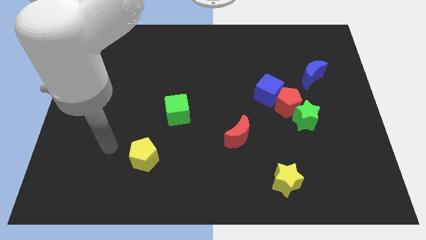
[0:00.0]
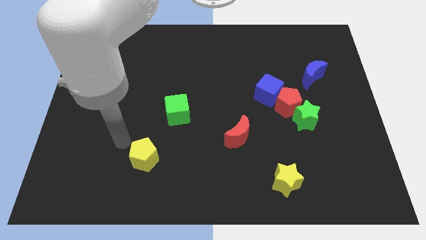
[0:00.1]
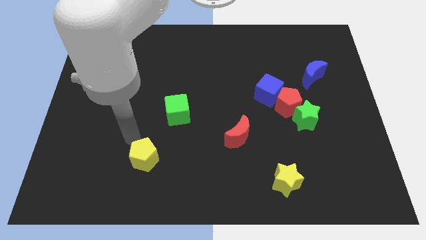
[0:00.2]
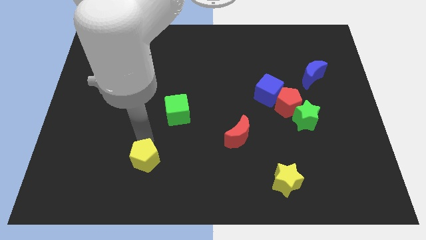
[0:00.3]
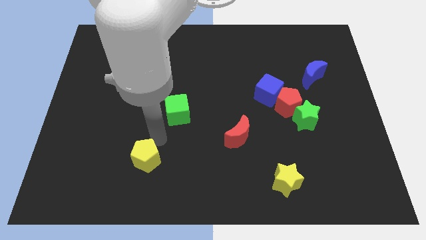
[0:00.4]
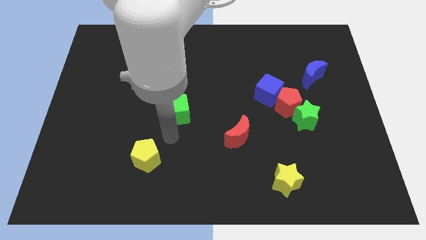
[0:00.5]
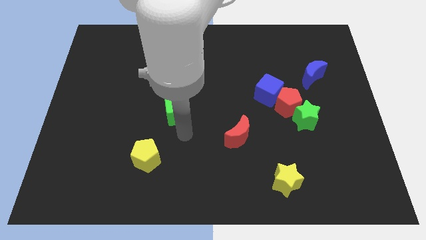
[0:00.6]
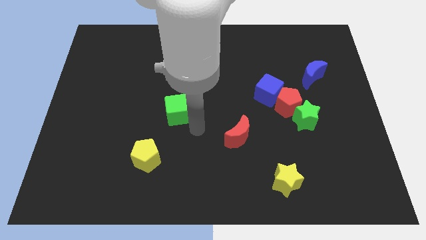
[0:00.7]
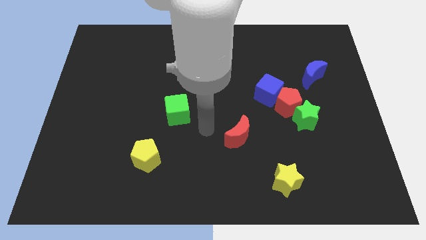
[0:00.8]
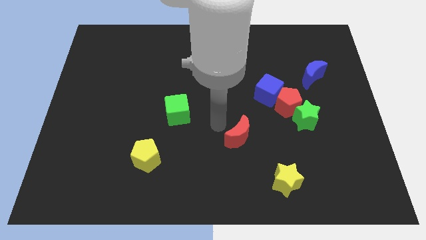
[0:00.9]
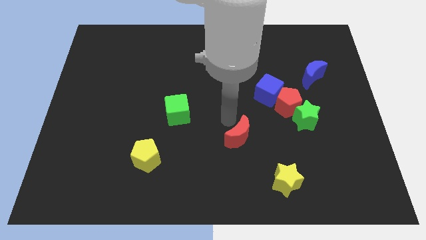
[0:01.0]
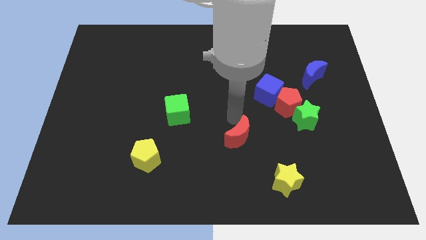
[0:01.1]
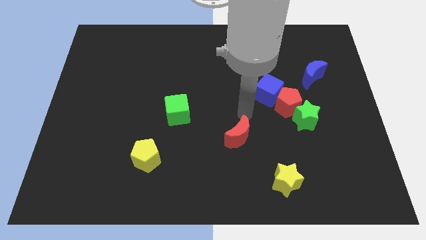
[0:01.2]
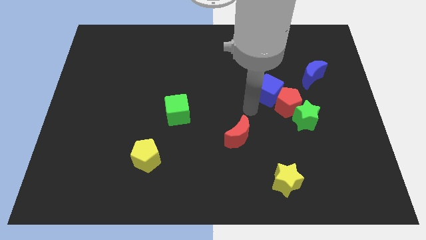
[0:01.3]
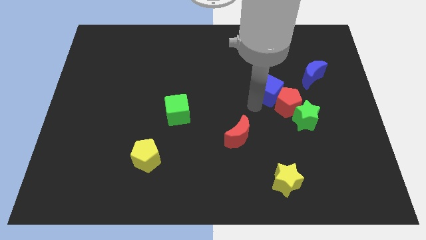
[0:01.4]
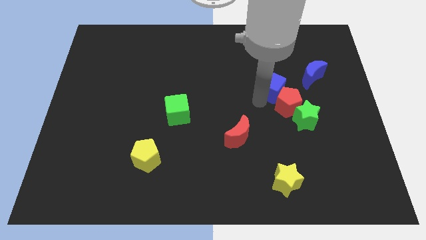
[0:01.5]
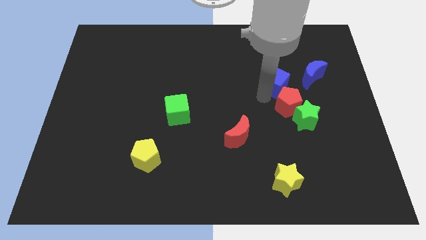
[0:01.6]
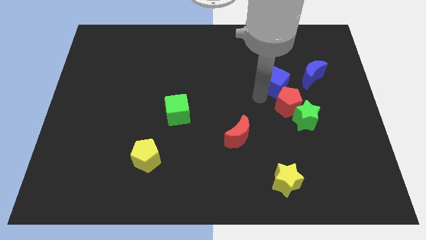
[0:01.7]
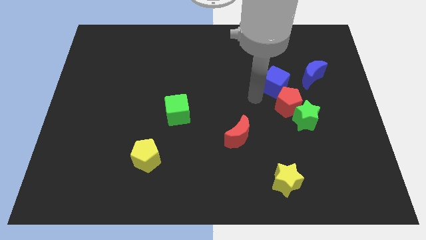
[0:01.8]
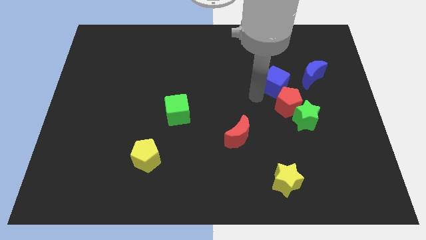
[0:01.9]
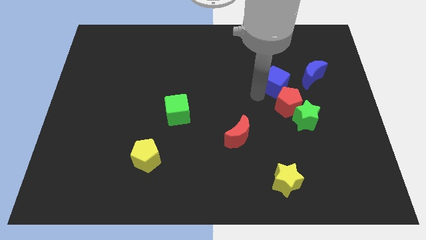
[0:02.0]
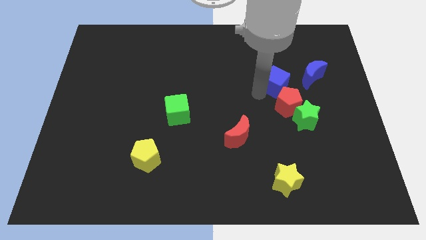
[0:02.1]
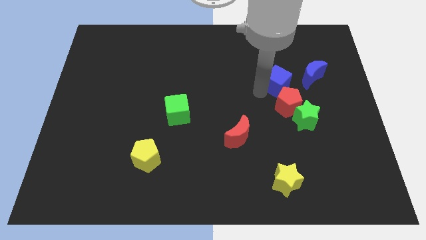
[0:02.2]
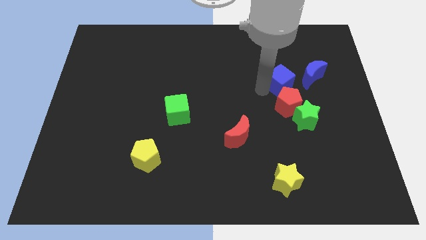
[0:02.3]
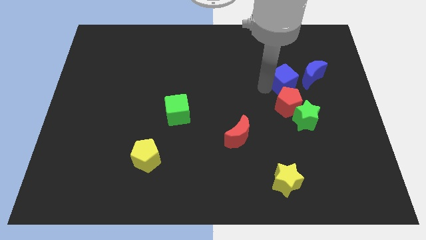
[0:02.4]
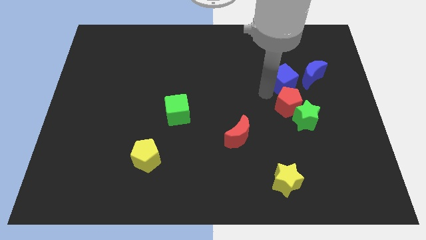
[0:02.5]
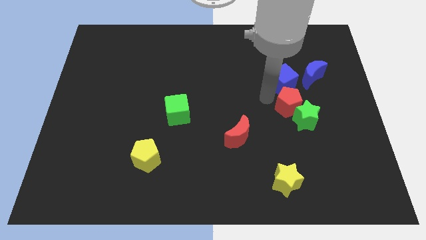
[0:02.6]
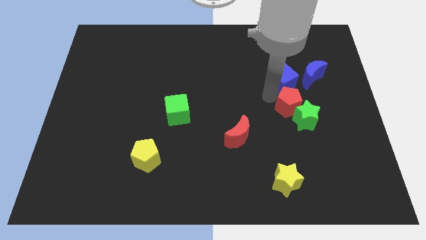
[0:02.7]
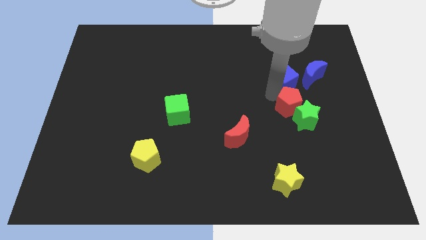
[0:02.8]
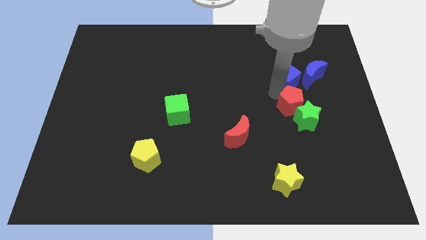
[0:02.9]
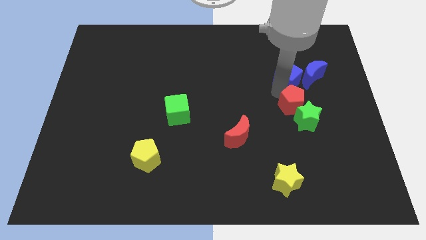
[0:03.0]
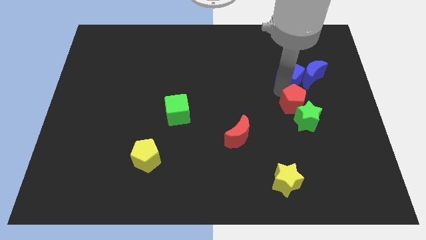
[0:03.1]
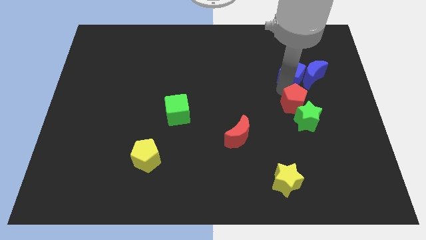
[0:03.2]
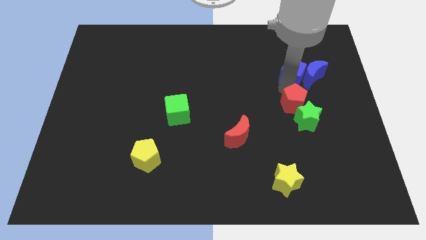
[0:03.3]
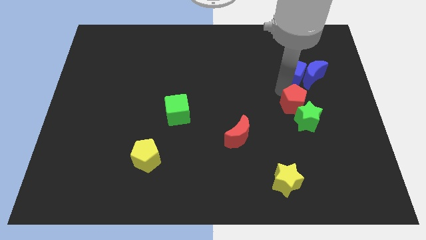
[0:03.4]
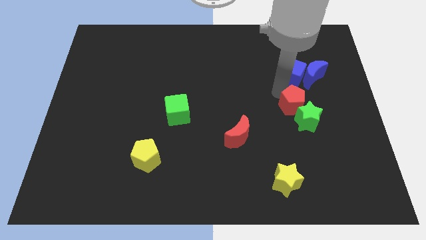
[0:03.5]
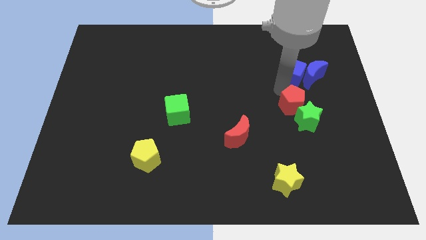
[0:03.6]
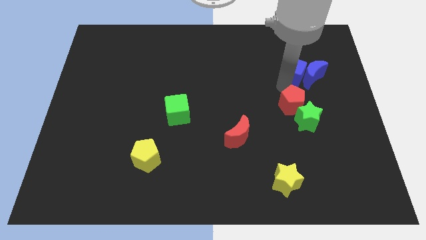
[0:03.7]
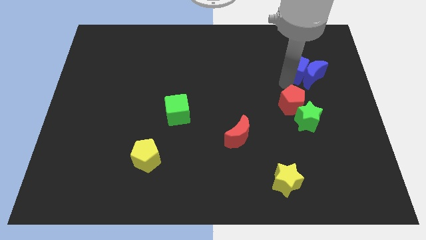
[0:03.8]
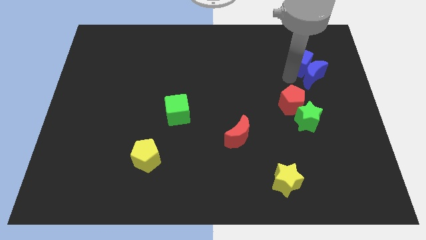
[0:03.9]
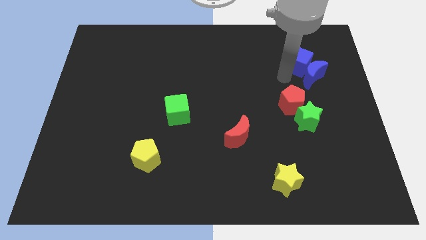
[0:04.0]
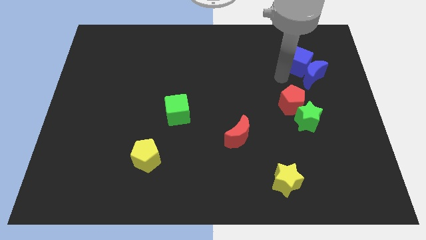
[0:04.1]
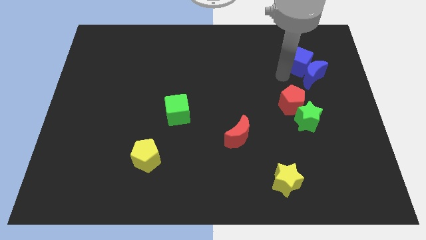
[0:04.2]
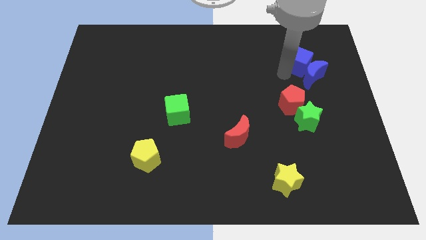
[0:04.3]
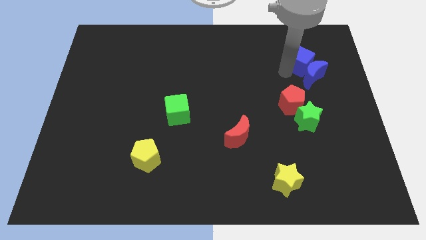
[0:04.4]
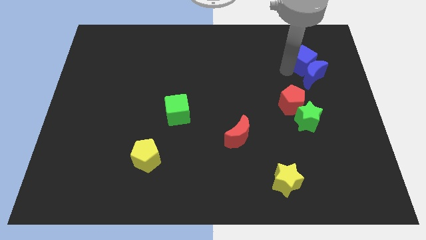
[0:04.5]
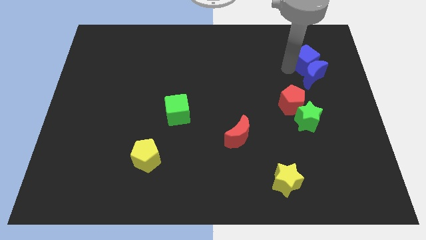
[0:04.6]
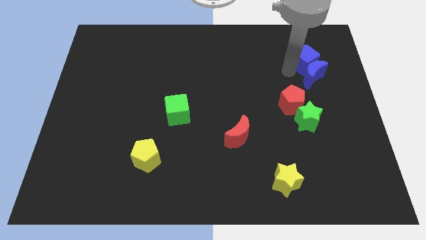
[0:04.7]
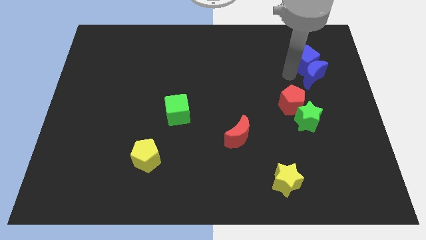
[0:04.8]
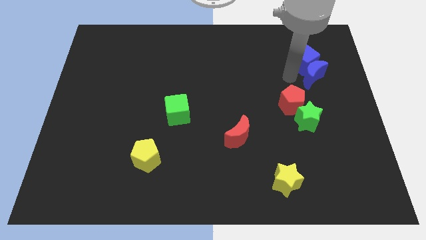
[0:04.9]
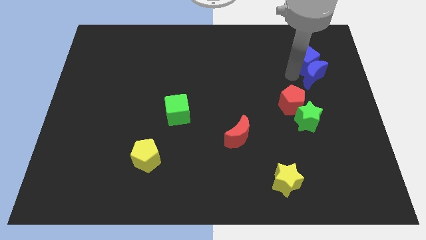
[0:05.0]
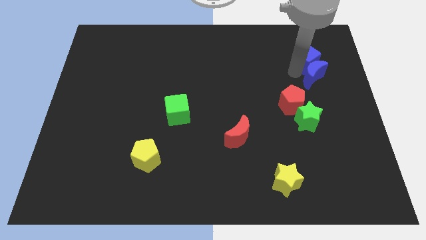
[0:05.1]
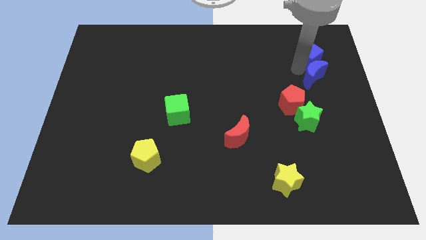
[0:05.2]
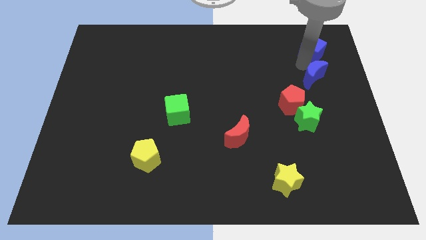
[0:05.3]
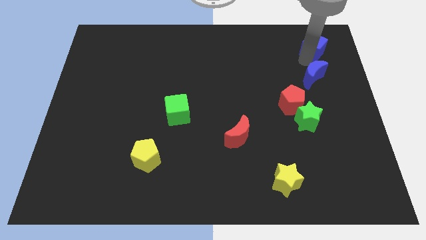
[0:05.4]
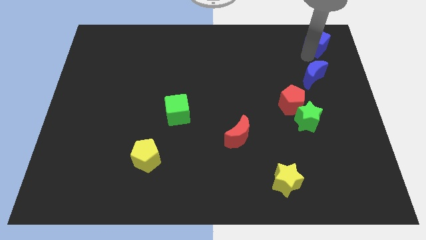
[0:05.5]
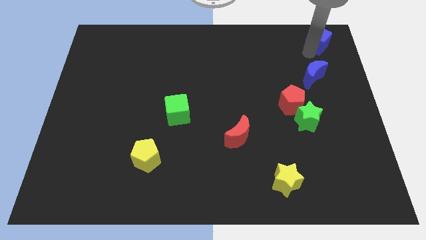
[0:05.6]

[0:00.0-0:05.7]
move the blue cube to the top right of the board

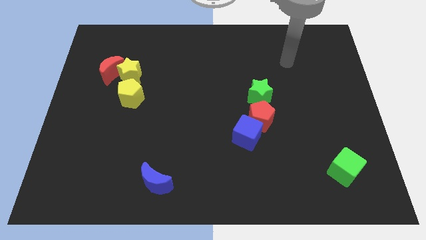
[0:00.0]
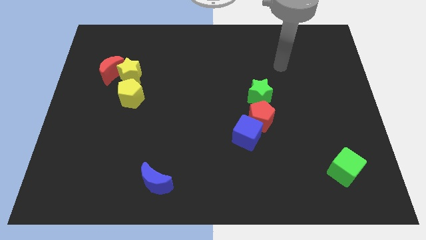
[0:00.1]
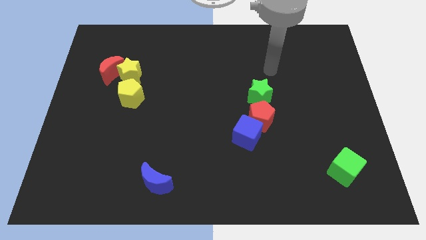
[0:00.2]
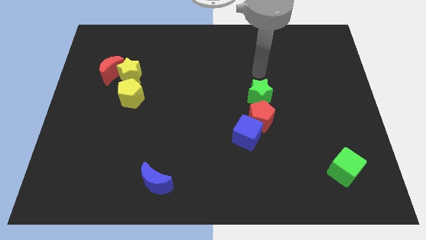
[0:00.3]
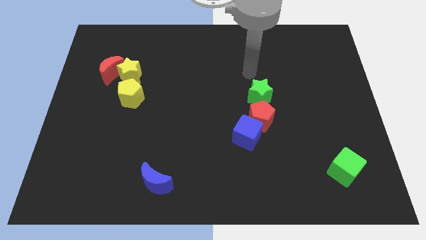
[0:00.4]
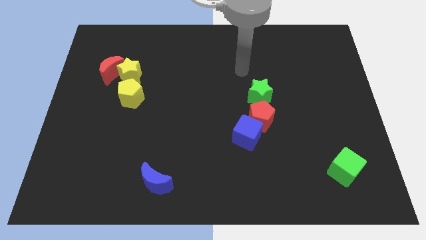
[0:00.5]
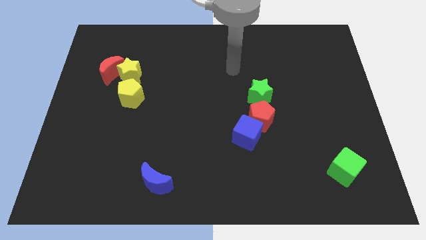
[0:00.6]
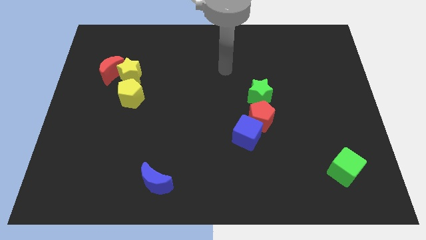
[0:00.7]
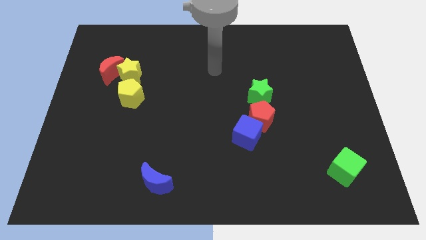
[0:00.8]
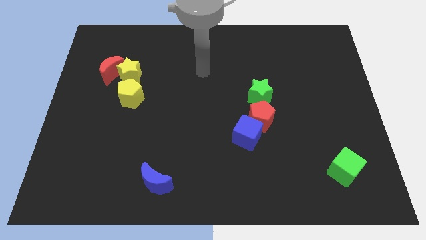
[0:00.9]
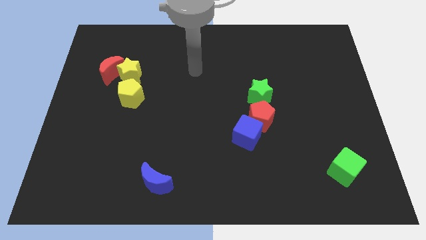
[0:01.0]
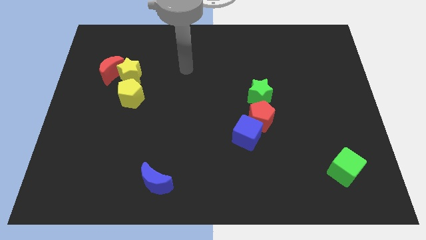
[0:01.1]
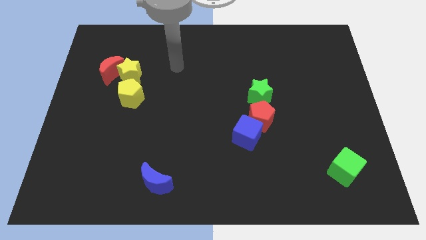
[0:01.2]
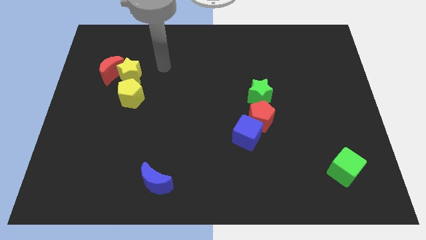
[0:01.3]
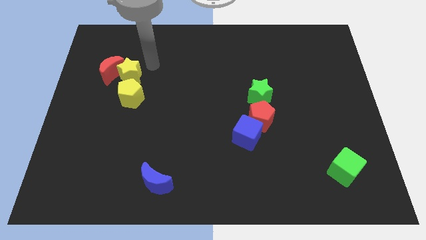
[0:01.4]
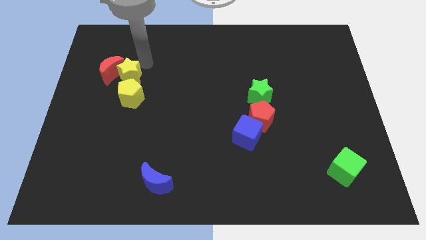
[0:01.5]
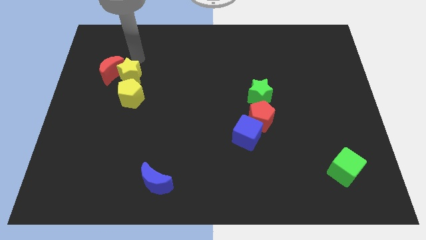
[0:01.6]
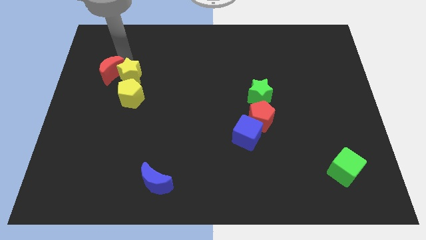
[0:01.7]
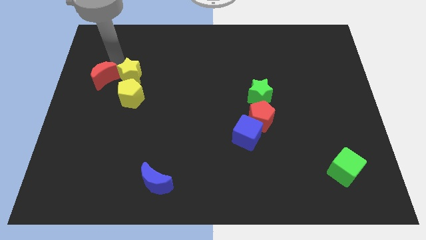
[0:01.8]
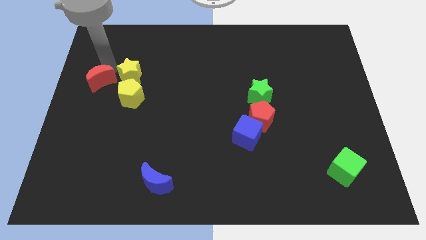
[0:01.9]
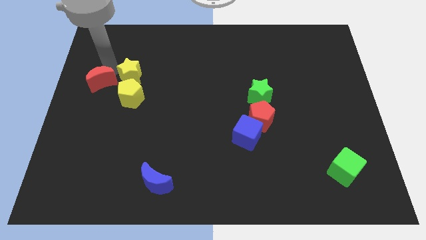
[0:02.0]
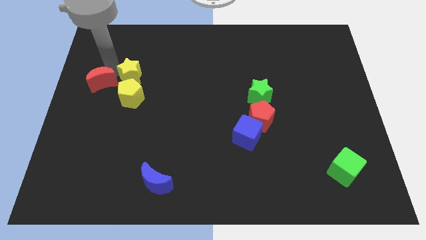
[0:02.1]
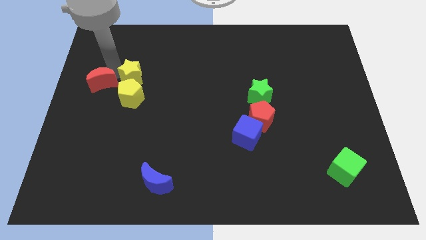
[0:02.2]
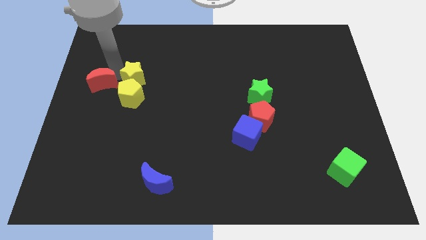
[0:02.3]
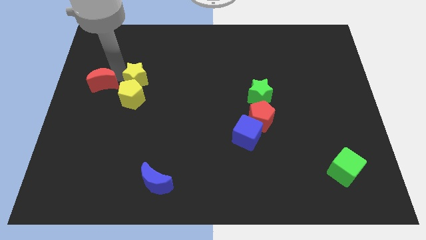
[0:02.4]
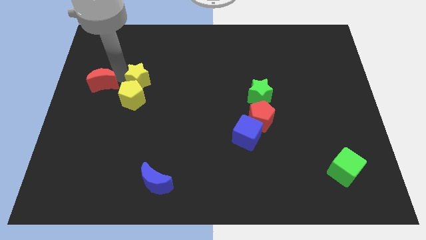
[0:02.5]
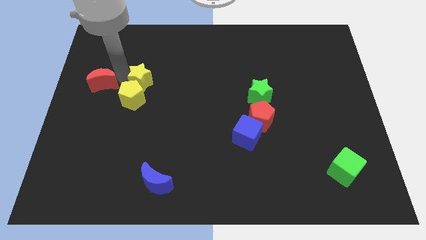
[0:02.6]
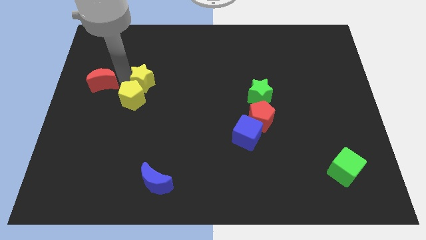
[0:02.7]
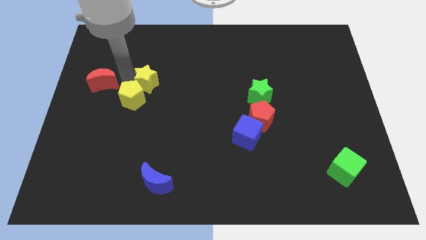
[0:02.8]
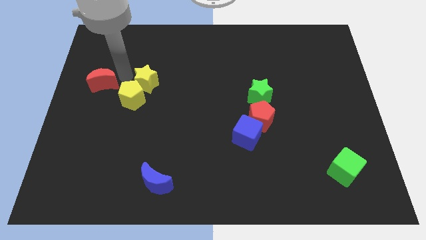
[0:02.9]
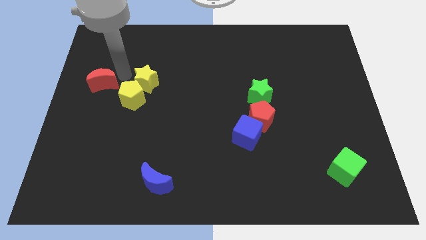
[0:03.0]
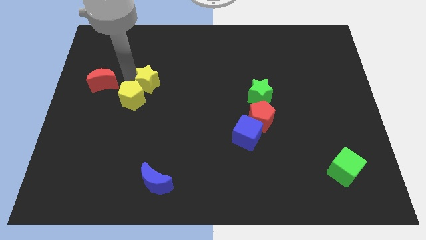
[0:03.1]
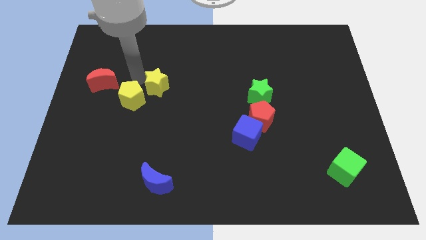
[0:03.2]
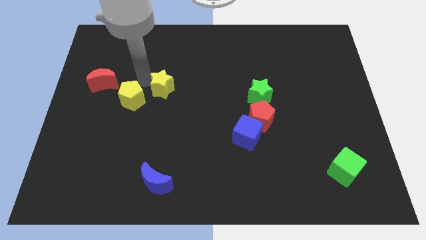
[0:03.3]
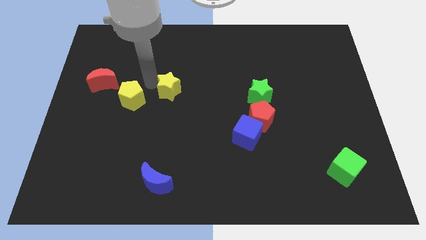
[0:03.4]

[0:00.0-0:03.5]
slide the yellow star to the middle
